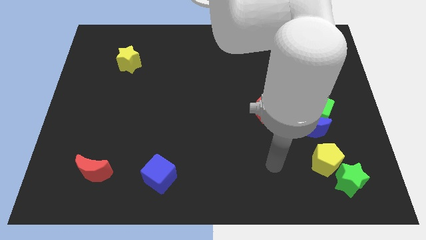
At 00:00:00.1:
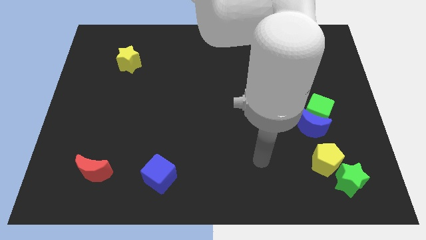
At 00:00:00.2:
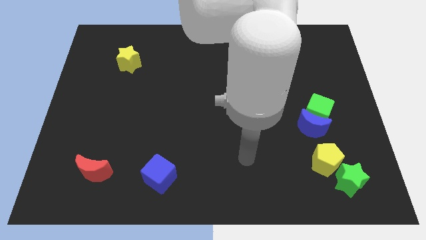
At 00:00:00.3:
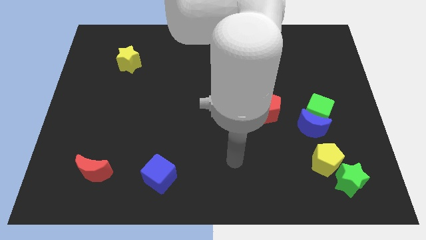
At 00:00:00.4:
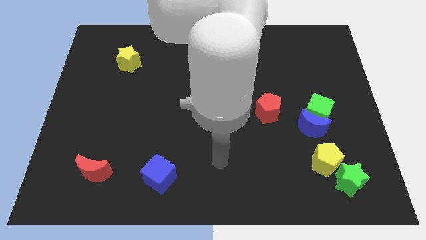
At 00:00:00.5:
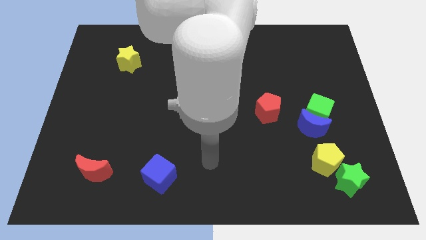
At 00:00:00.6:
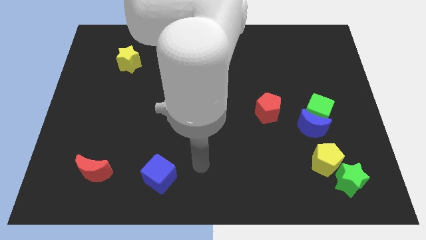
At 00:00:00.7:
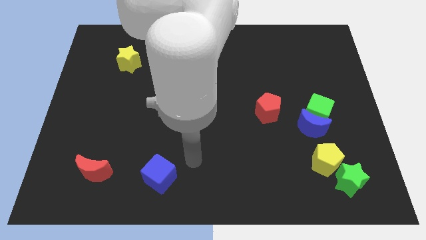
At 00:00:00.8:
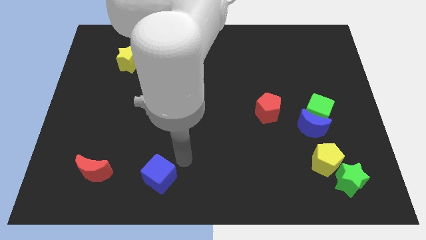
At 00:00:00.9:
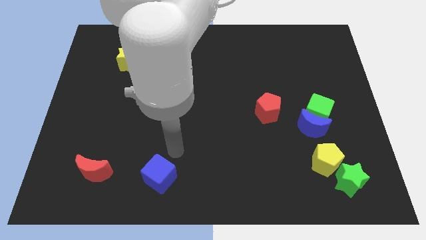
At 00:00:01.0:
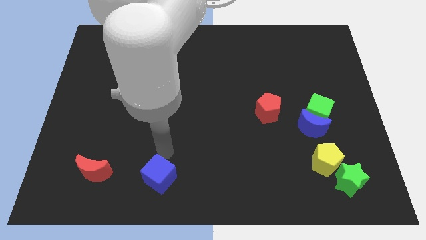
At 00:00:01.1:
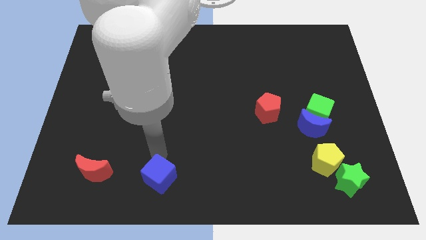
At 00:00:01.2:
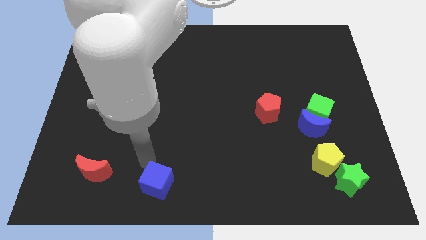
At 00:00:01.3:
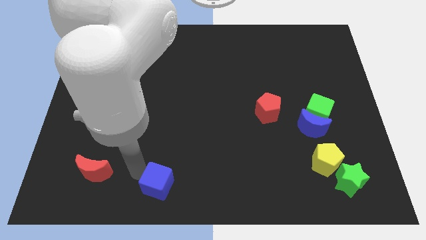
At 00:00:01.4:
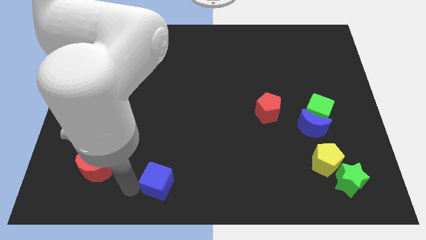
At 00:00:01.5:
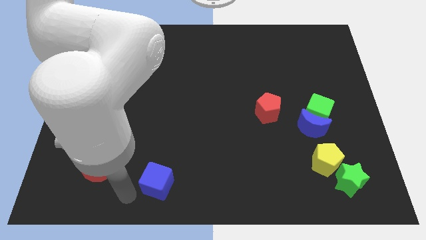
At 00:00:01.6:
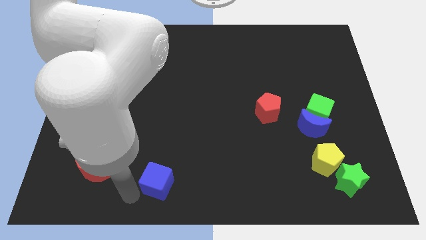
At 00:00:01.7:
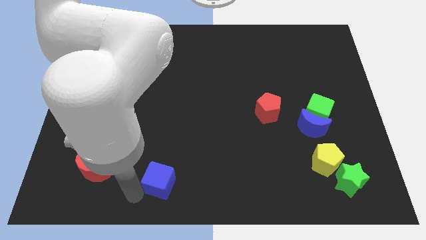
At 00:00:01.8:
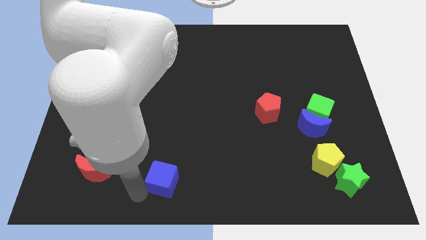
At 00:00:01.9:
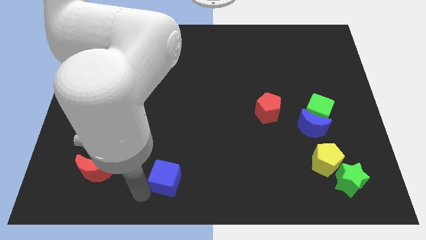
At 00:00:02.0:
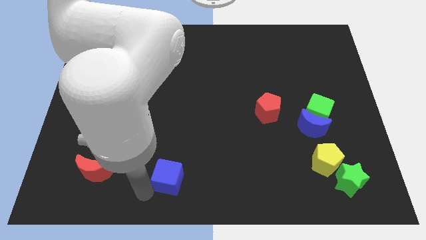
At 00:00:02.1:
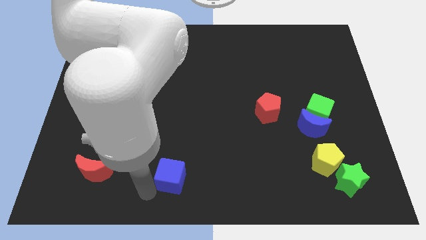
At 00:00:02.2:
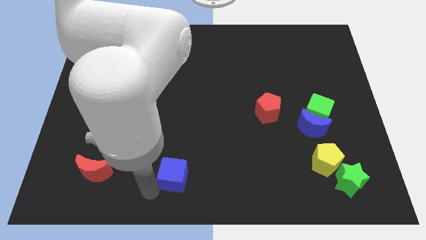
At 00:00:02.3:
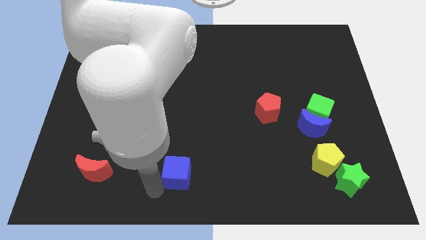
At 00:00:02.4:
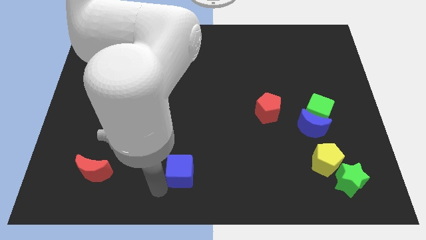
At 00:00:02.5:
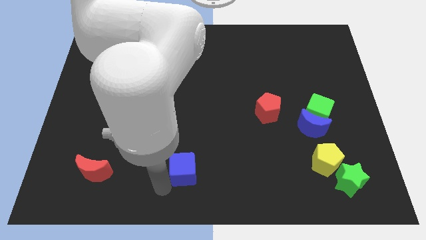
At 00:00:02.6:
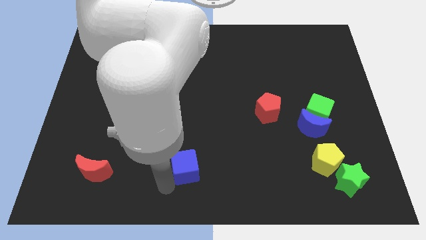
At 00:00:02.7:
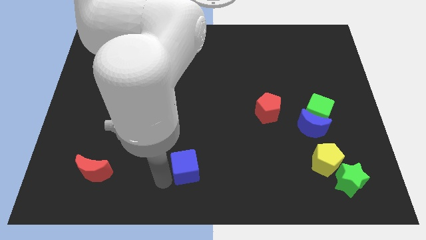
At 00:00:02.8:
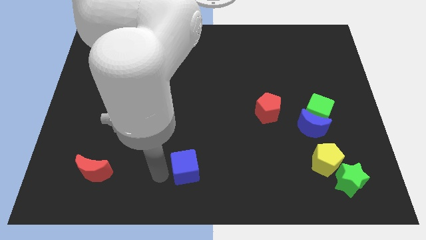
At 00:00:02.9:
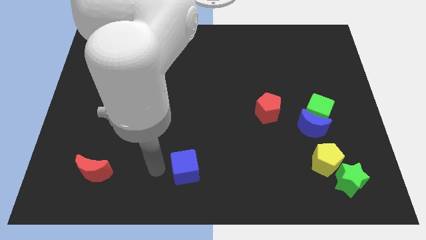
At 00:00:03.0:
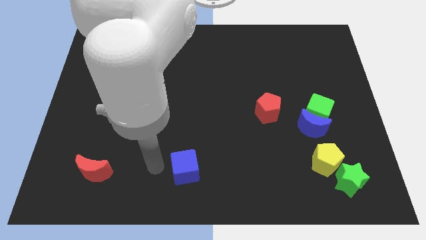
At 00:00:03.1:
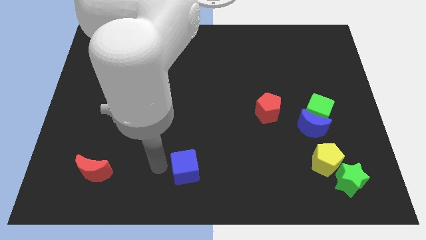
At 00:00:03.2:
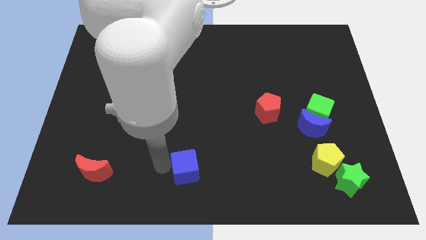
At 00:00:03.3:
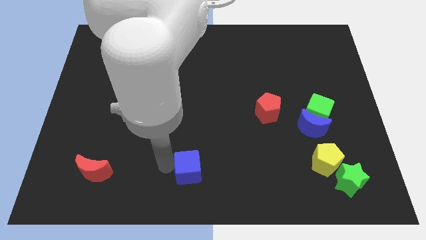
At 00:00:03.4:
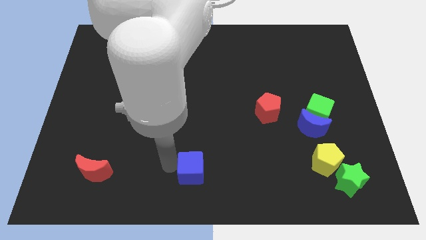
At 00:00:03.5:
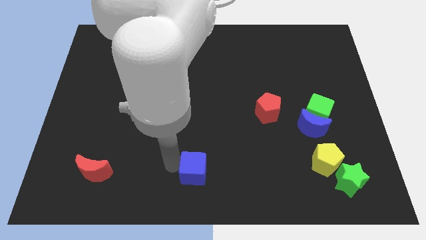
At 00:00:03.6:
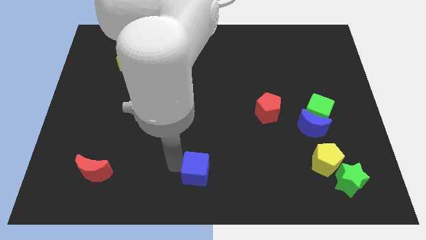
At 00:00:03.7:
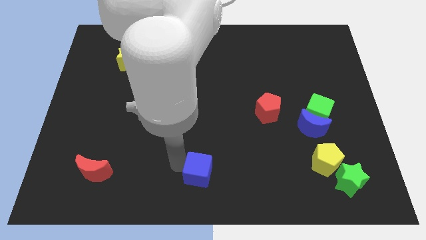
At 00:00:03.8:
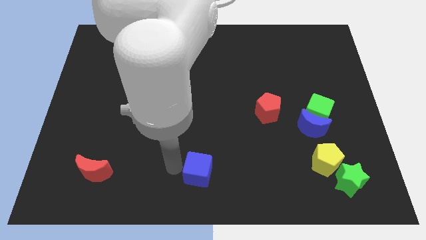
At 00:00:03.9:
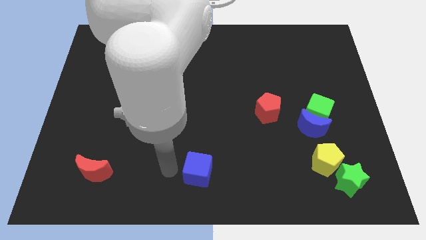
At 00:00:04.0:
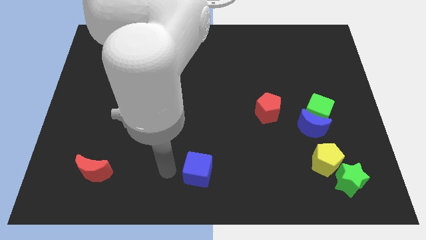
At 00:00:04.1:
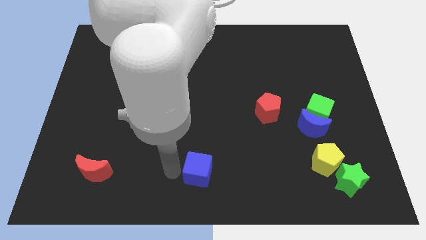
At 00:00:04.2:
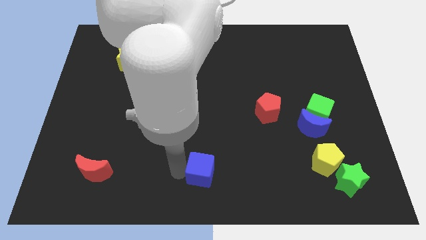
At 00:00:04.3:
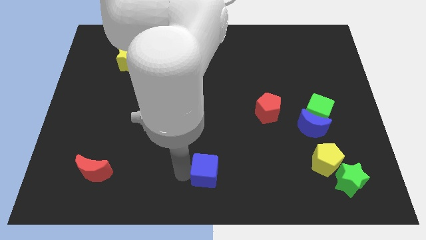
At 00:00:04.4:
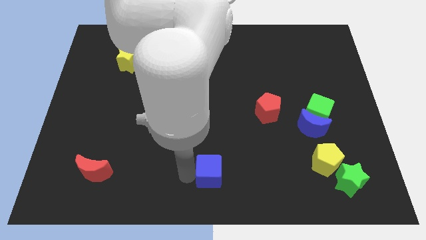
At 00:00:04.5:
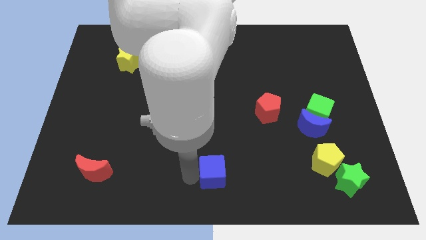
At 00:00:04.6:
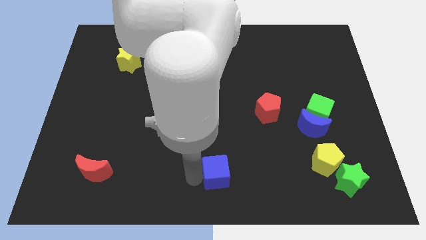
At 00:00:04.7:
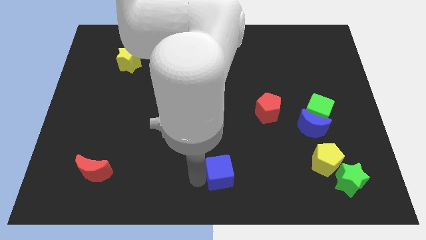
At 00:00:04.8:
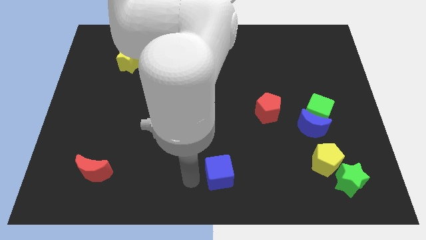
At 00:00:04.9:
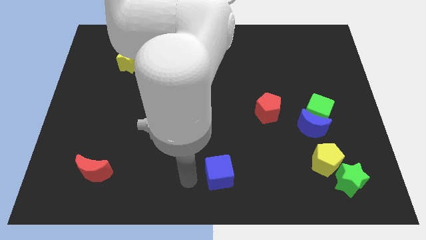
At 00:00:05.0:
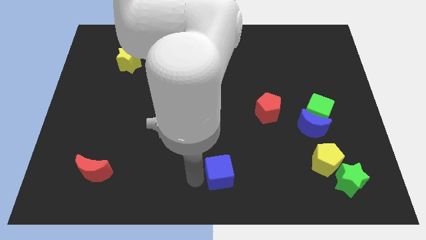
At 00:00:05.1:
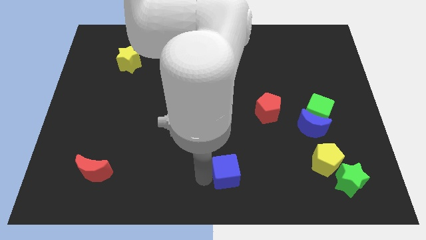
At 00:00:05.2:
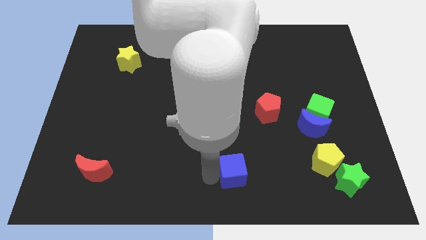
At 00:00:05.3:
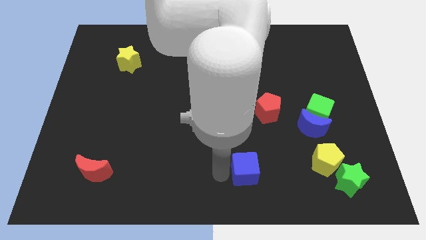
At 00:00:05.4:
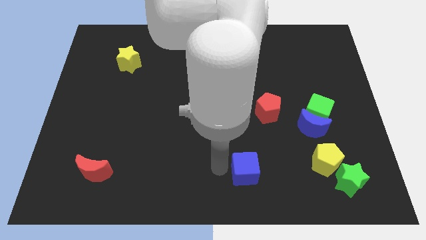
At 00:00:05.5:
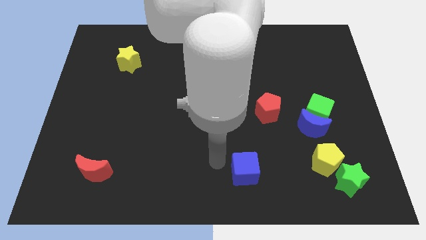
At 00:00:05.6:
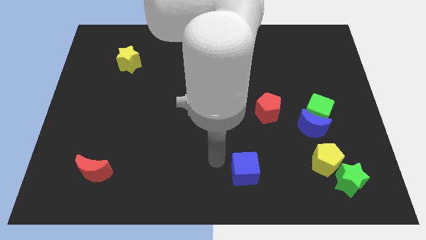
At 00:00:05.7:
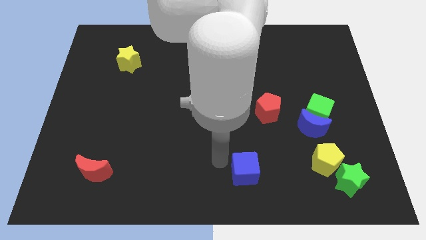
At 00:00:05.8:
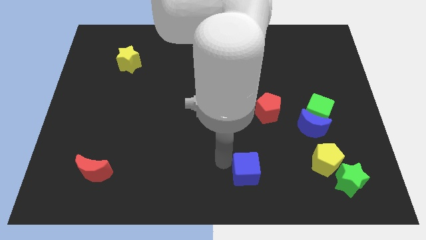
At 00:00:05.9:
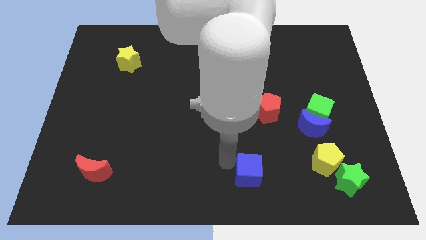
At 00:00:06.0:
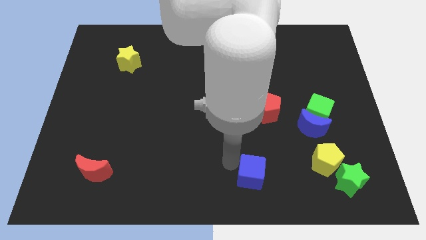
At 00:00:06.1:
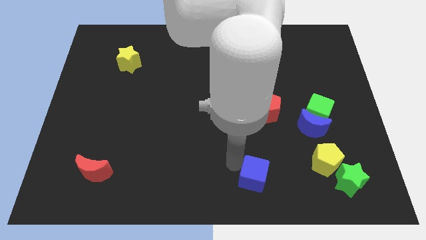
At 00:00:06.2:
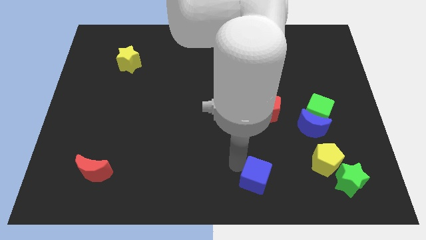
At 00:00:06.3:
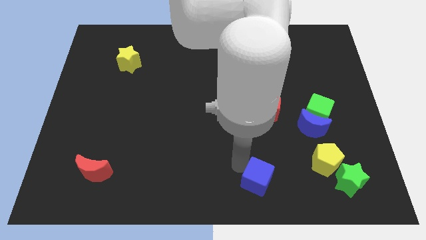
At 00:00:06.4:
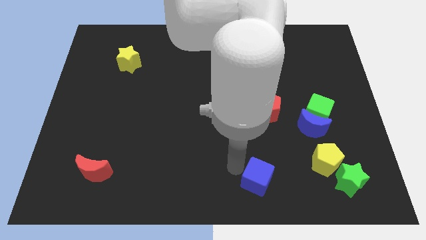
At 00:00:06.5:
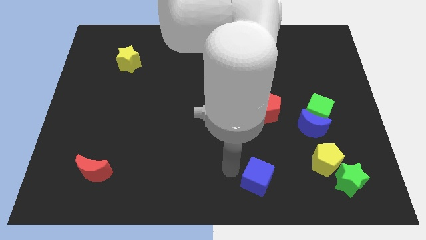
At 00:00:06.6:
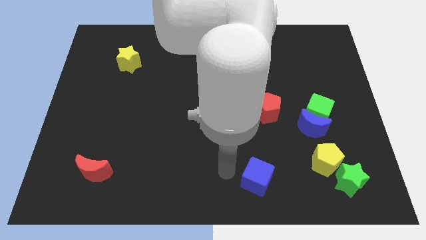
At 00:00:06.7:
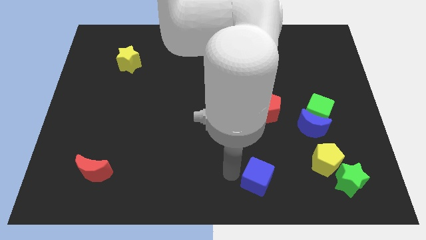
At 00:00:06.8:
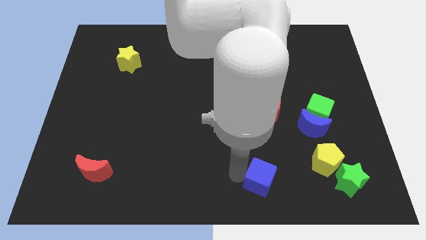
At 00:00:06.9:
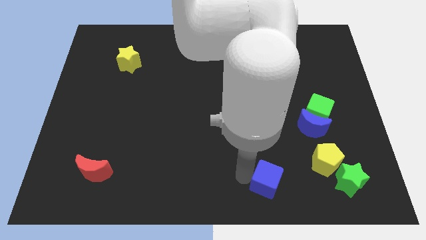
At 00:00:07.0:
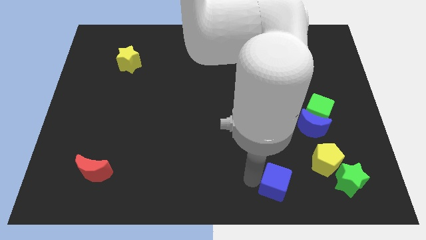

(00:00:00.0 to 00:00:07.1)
put the blue cube to the left of the green star
